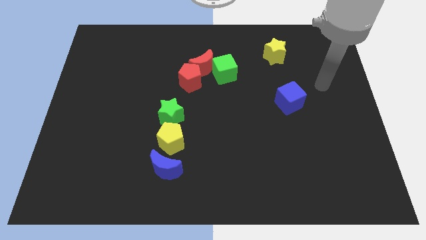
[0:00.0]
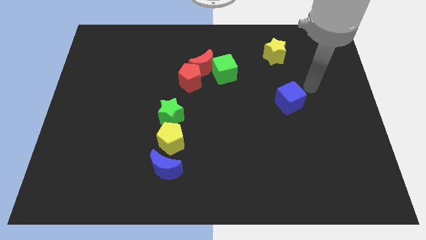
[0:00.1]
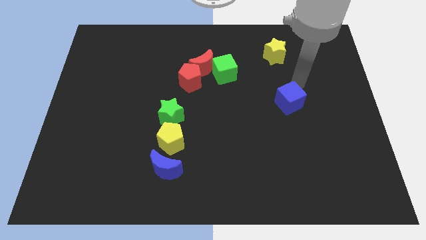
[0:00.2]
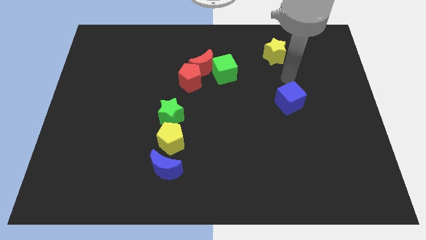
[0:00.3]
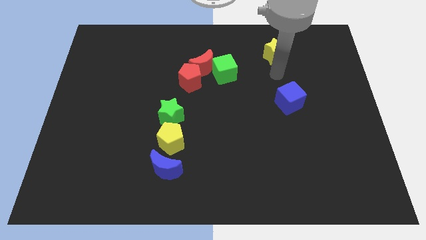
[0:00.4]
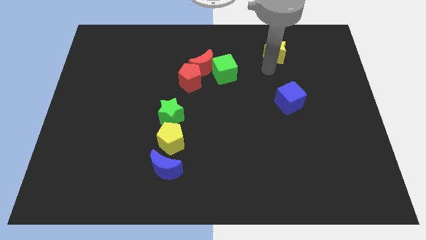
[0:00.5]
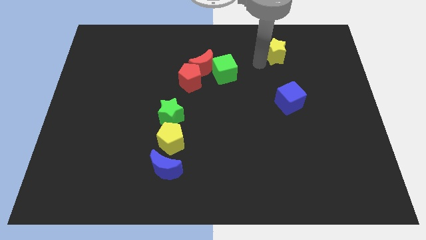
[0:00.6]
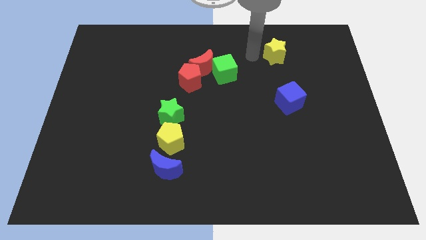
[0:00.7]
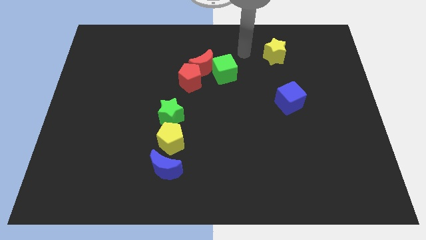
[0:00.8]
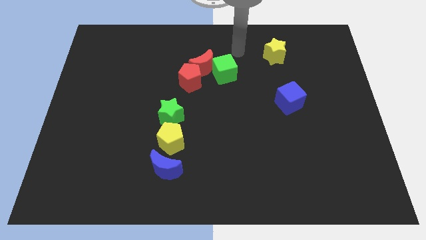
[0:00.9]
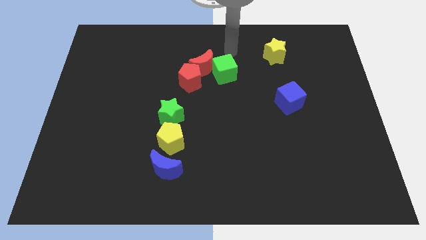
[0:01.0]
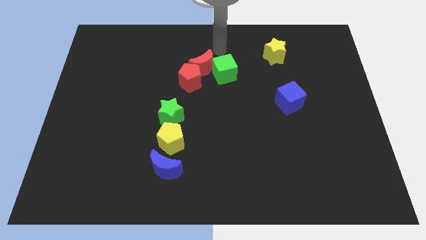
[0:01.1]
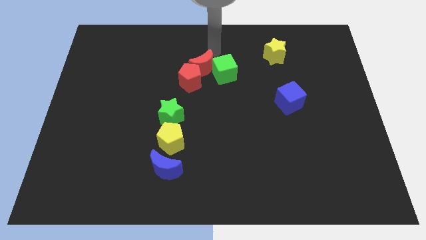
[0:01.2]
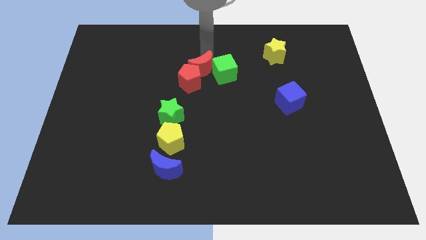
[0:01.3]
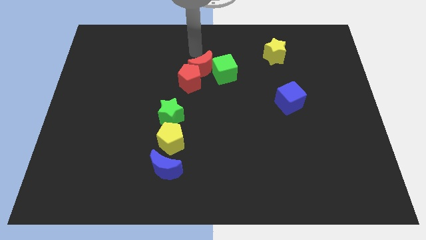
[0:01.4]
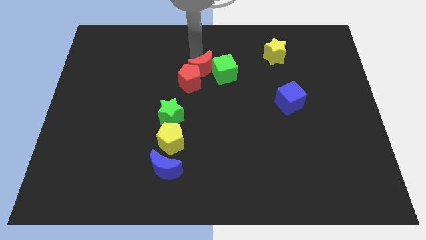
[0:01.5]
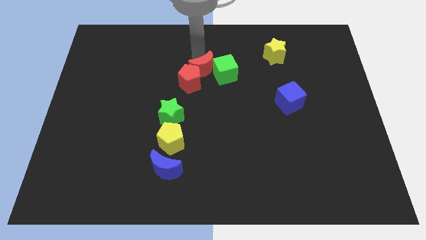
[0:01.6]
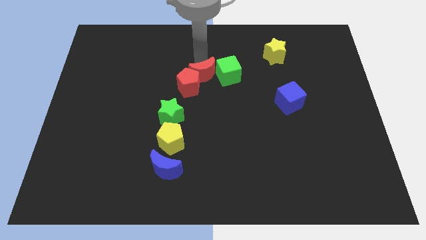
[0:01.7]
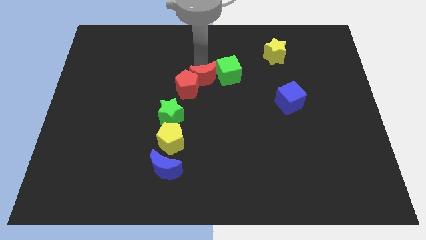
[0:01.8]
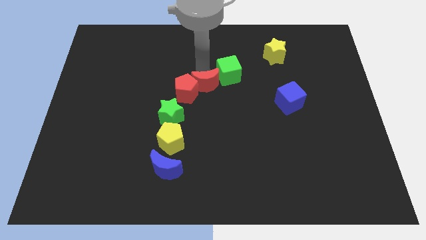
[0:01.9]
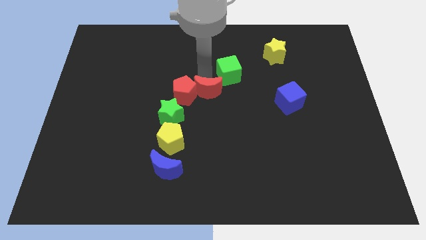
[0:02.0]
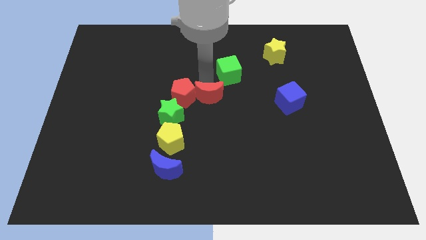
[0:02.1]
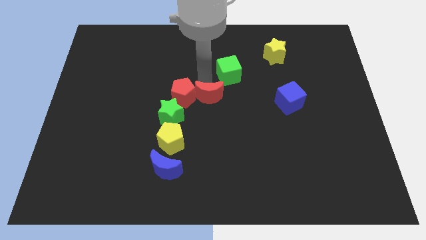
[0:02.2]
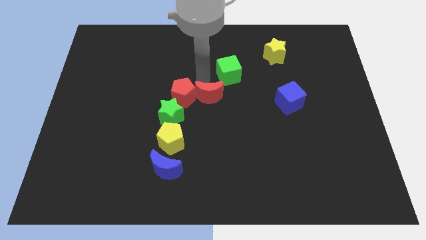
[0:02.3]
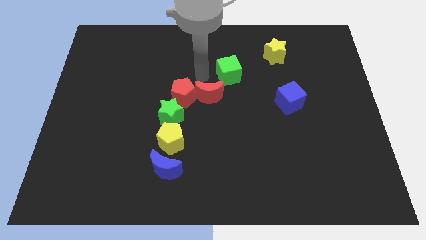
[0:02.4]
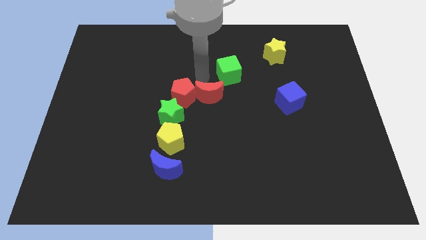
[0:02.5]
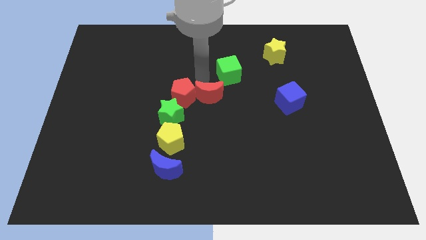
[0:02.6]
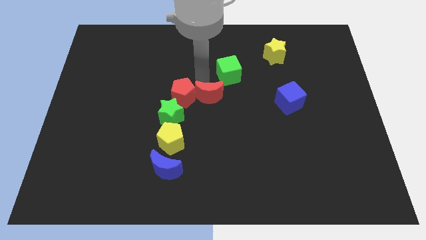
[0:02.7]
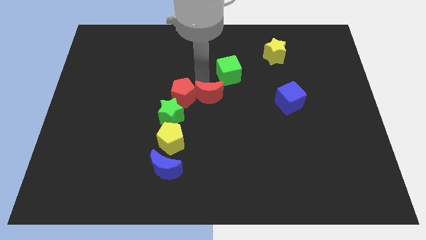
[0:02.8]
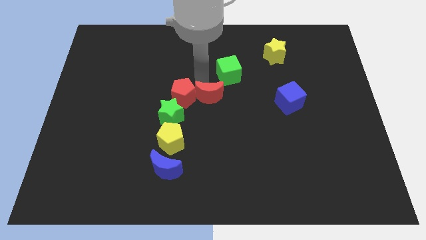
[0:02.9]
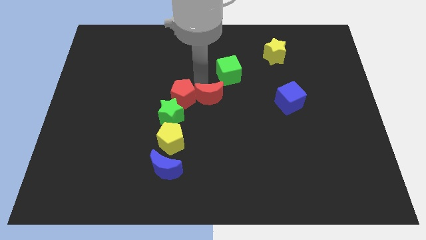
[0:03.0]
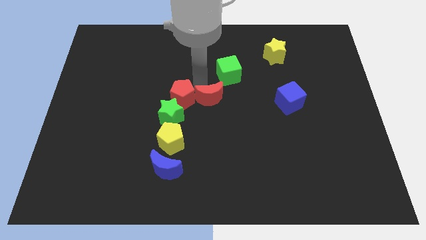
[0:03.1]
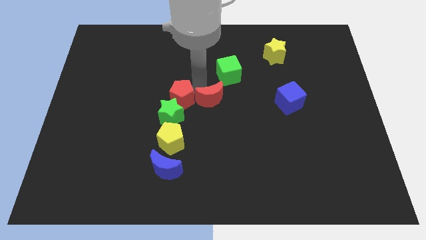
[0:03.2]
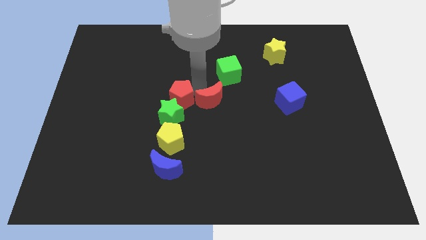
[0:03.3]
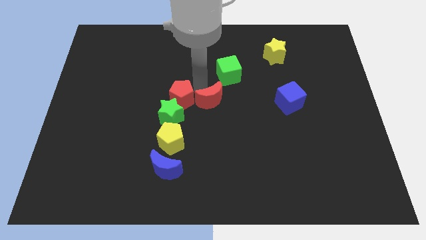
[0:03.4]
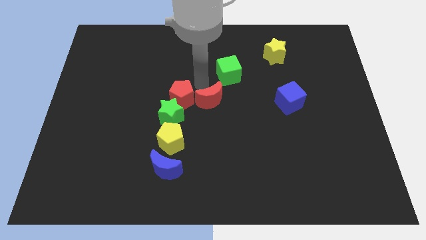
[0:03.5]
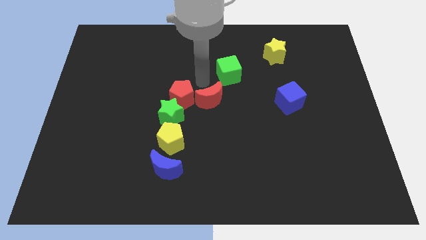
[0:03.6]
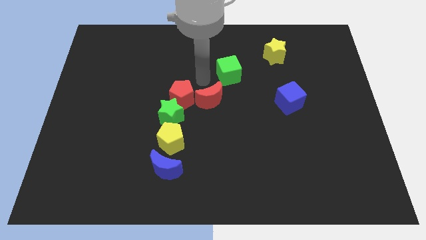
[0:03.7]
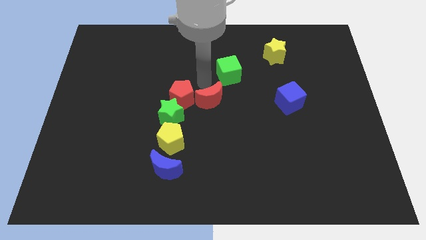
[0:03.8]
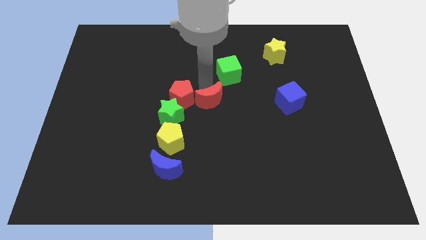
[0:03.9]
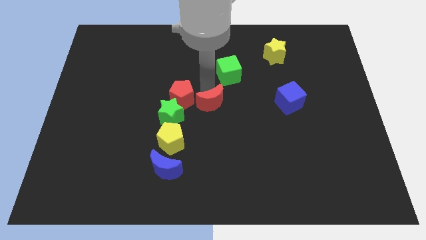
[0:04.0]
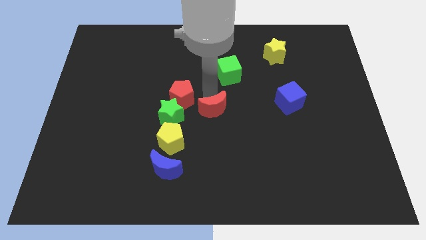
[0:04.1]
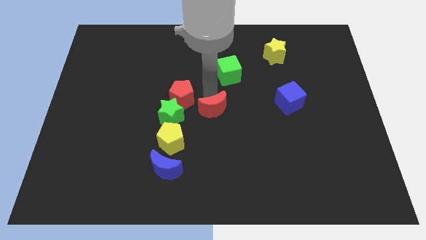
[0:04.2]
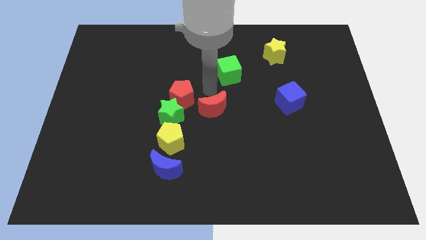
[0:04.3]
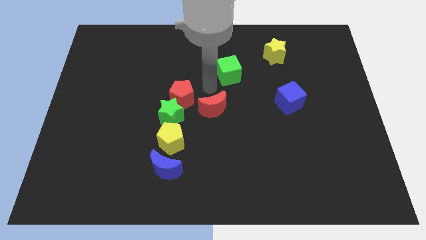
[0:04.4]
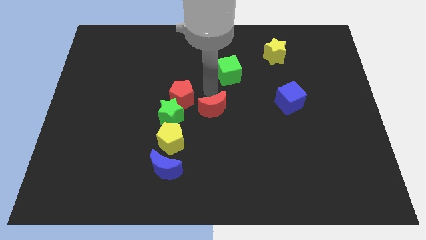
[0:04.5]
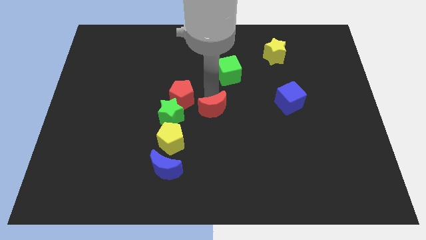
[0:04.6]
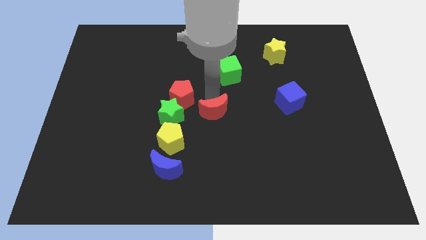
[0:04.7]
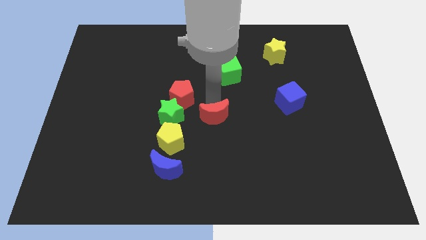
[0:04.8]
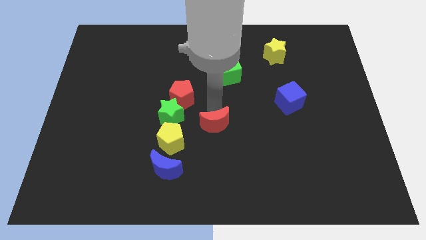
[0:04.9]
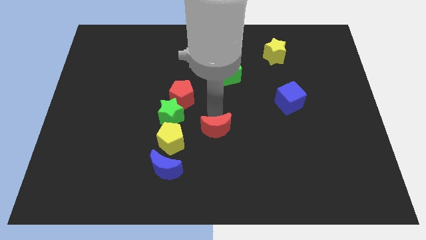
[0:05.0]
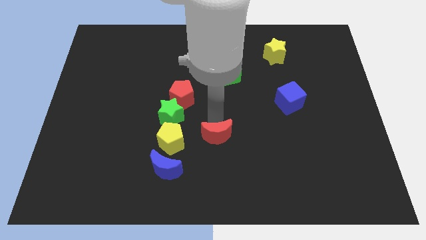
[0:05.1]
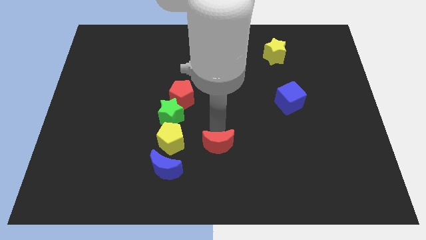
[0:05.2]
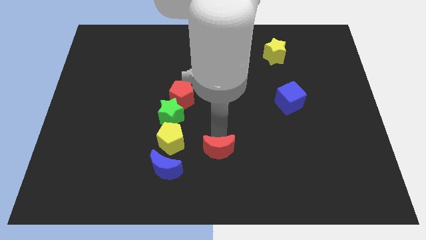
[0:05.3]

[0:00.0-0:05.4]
push the red moon just right of the blue moon

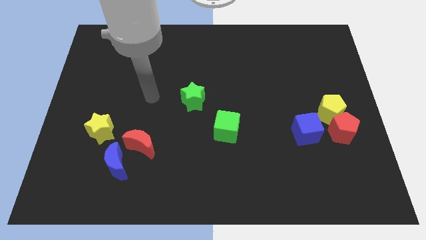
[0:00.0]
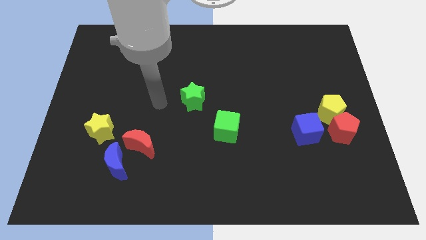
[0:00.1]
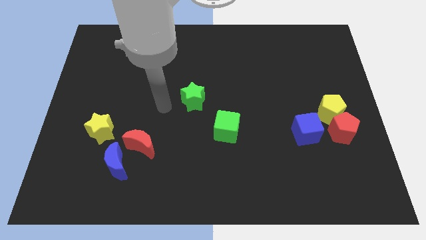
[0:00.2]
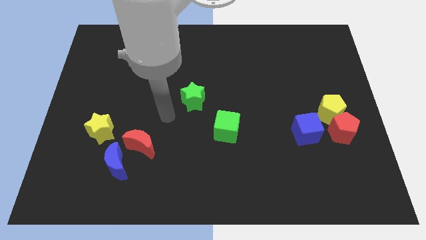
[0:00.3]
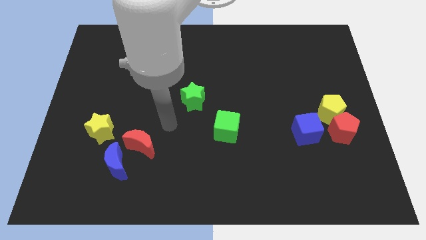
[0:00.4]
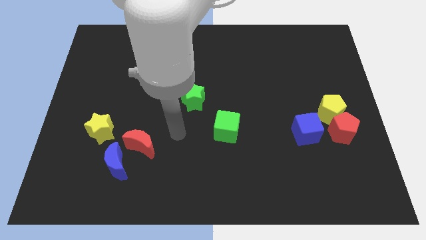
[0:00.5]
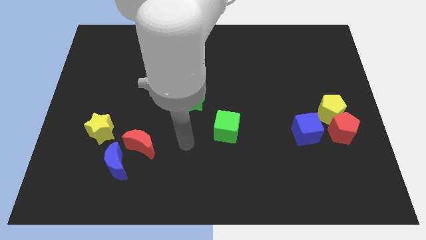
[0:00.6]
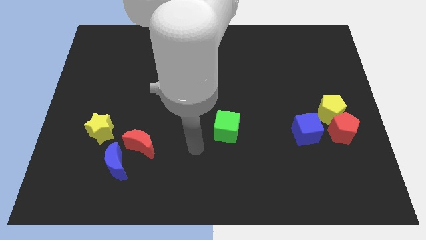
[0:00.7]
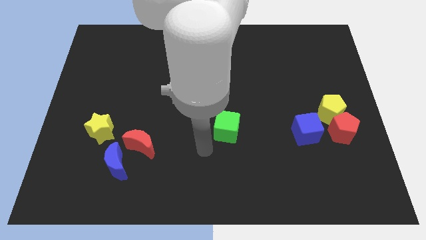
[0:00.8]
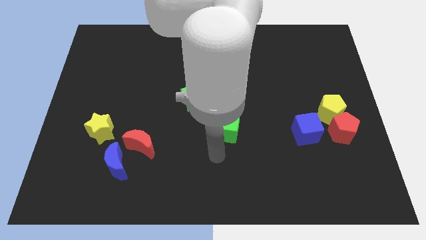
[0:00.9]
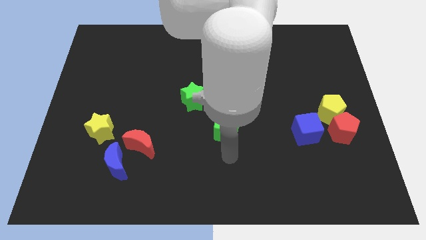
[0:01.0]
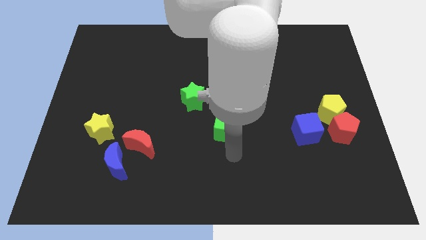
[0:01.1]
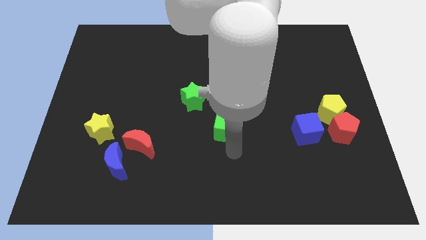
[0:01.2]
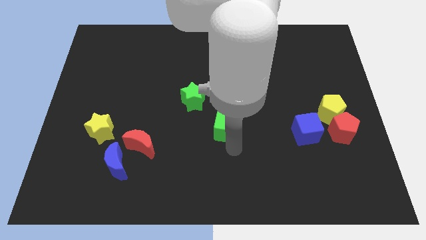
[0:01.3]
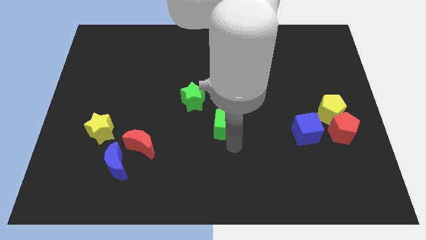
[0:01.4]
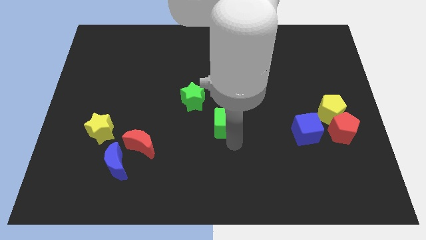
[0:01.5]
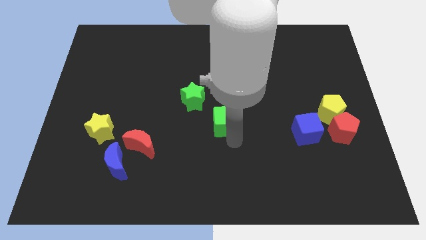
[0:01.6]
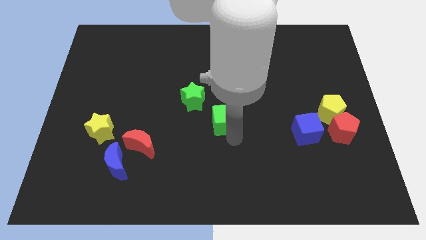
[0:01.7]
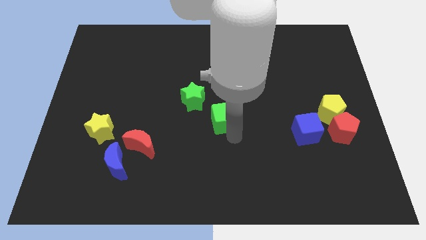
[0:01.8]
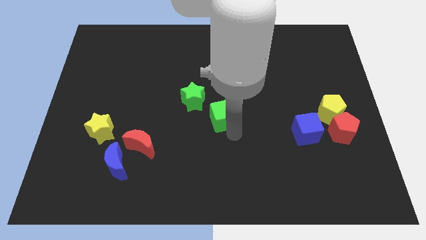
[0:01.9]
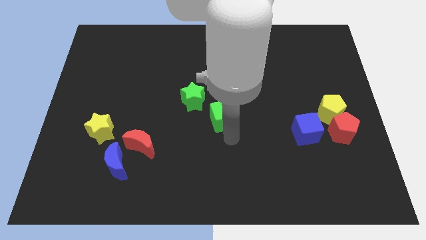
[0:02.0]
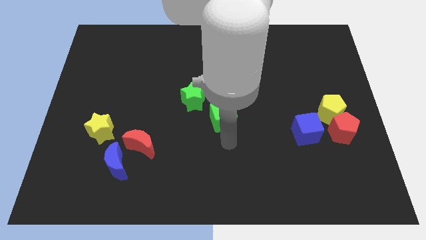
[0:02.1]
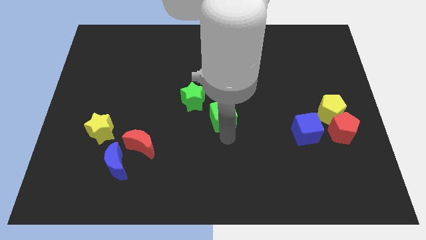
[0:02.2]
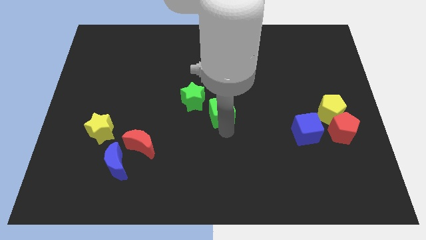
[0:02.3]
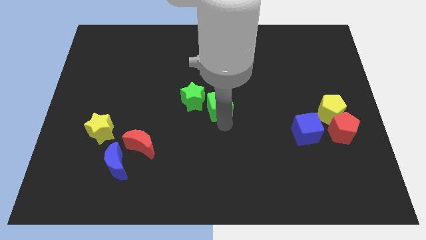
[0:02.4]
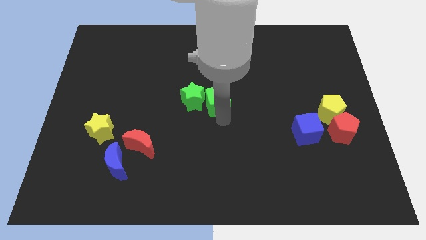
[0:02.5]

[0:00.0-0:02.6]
slide the green cube to the top right side of the green star
